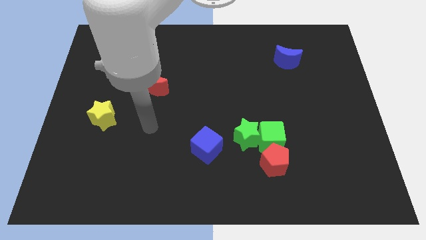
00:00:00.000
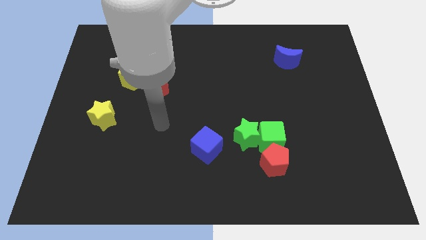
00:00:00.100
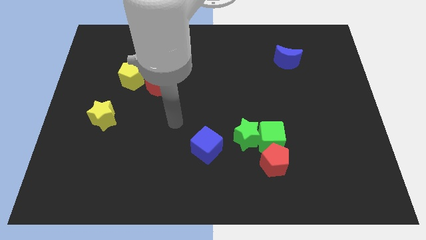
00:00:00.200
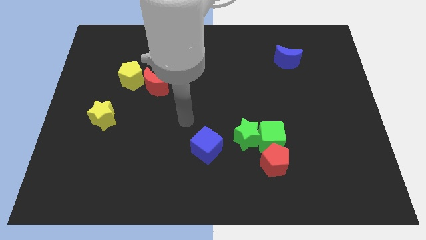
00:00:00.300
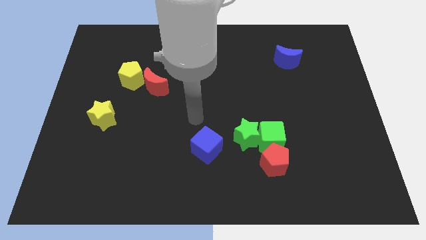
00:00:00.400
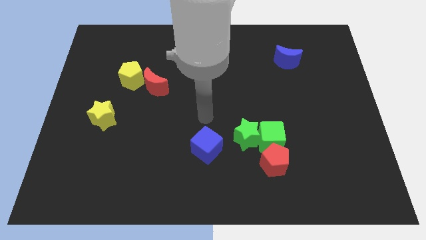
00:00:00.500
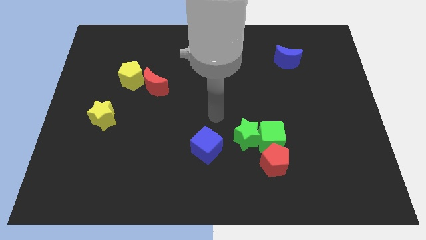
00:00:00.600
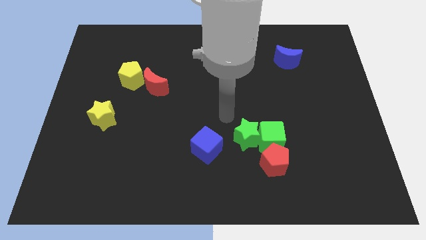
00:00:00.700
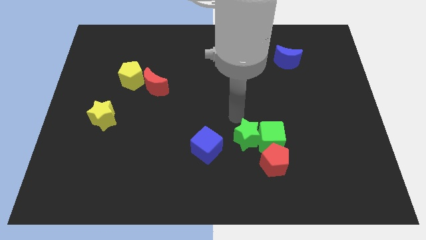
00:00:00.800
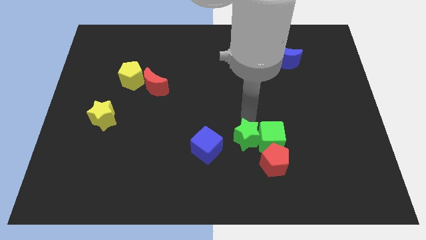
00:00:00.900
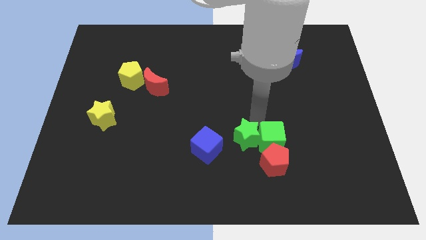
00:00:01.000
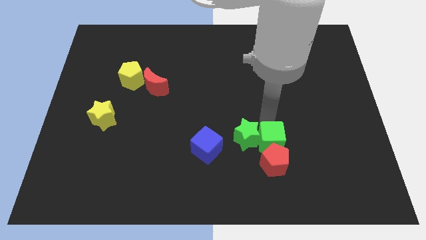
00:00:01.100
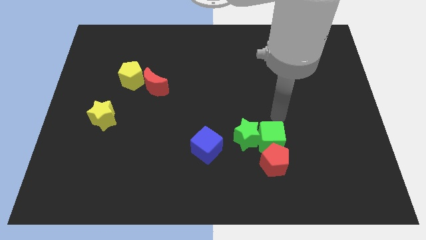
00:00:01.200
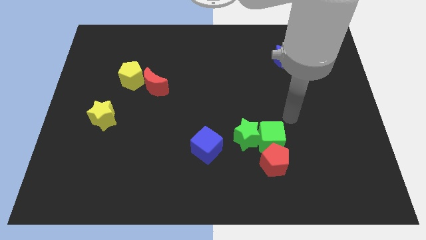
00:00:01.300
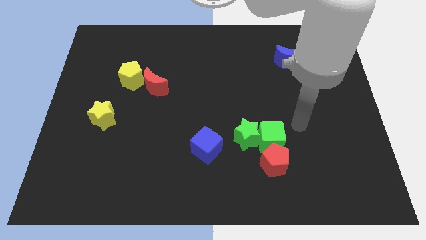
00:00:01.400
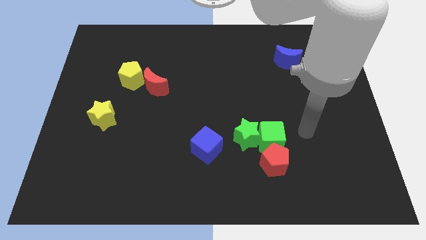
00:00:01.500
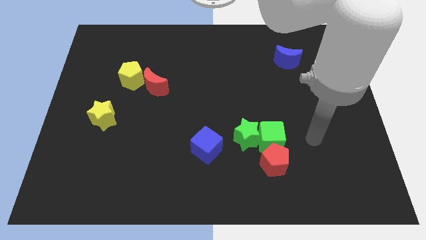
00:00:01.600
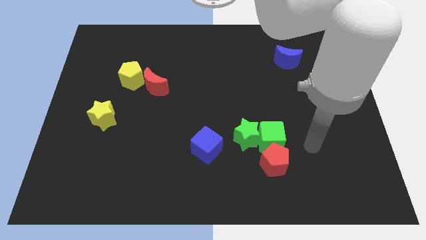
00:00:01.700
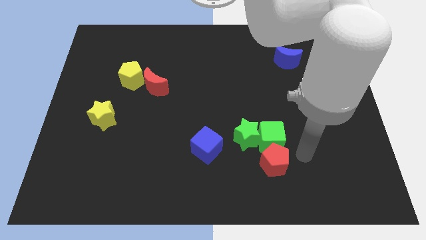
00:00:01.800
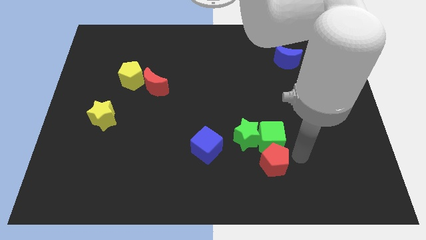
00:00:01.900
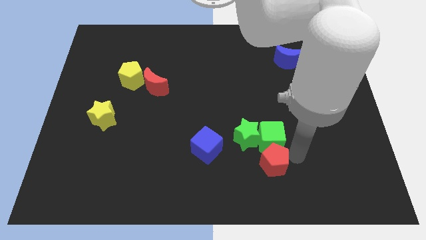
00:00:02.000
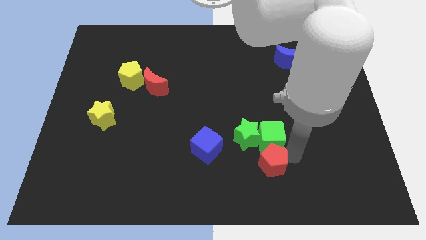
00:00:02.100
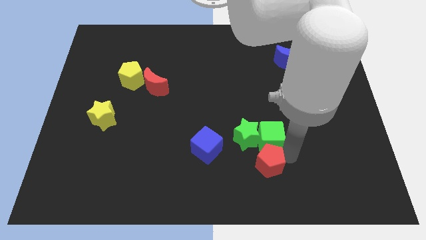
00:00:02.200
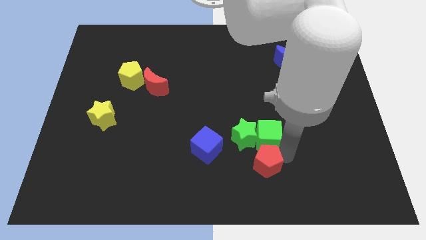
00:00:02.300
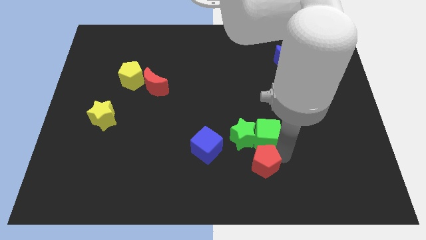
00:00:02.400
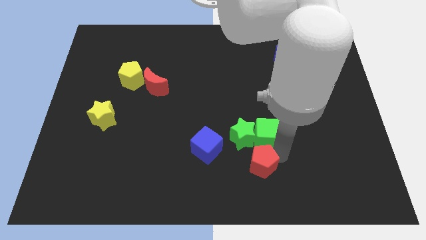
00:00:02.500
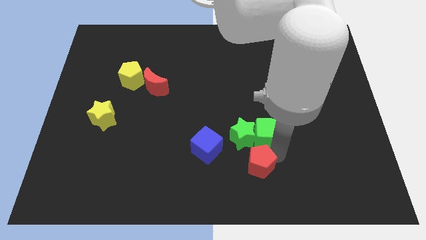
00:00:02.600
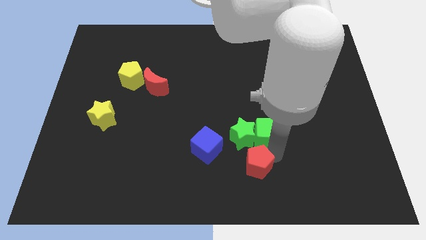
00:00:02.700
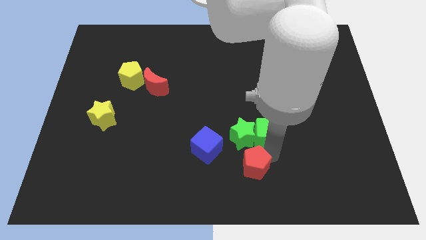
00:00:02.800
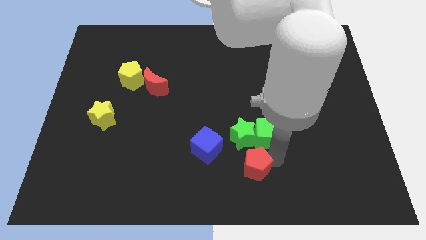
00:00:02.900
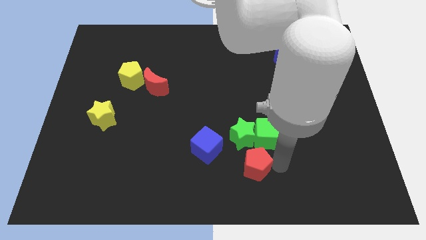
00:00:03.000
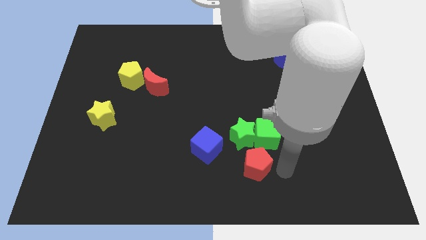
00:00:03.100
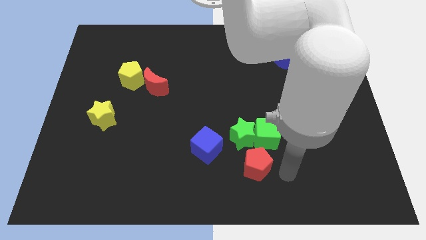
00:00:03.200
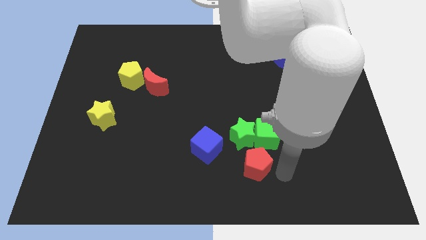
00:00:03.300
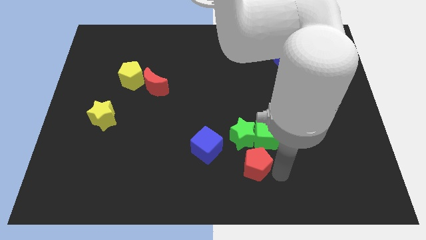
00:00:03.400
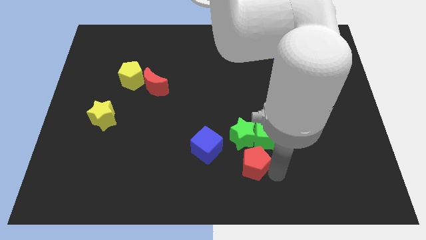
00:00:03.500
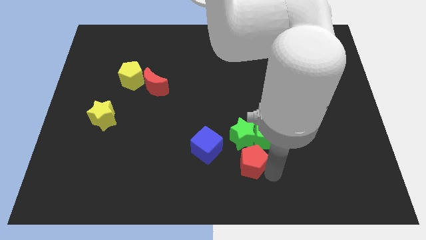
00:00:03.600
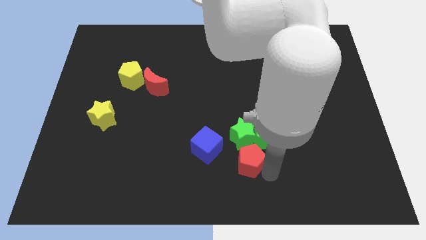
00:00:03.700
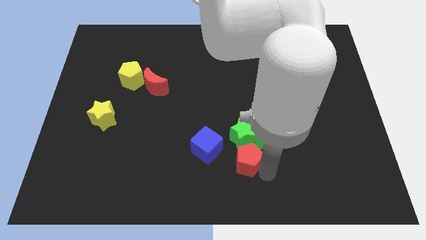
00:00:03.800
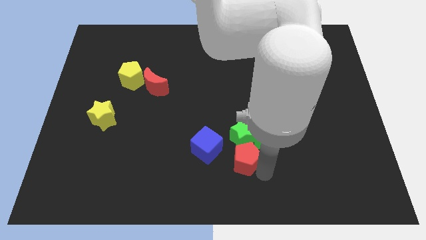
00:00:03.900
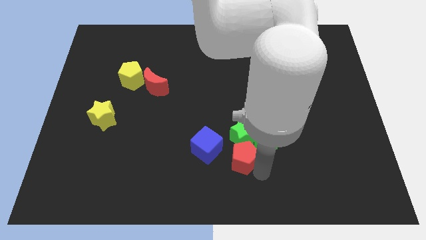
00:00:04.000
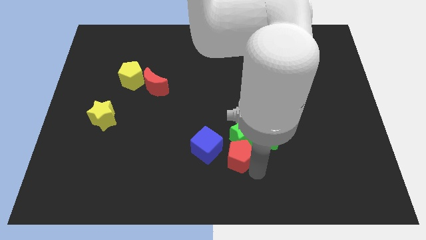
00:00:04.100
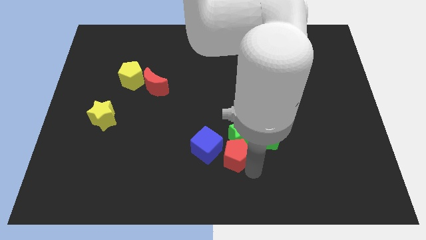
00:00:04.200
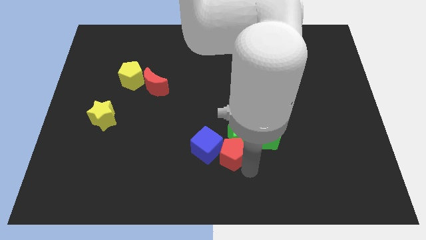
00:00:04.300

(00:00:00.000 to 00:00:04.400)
slide the red pentagon close to the blue cube

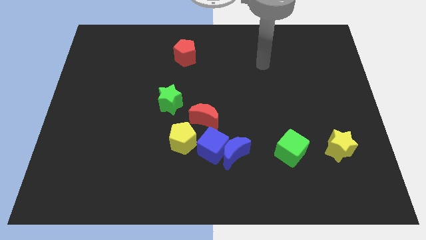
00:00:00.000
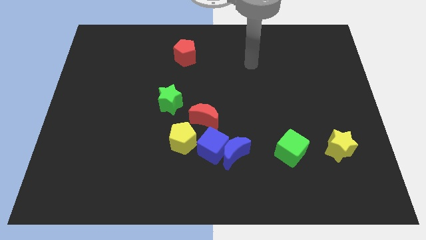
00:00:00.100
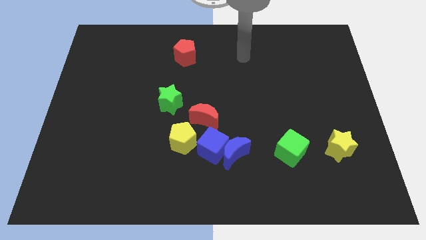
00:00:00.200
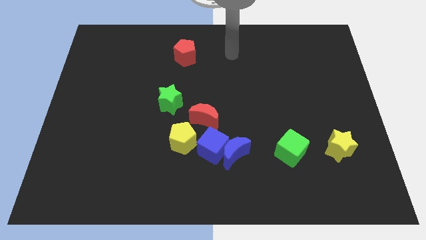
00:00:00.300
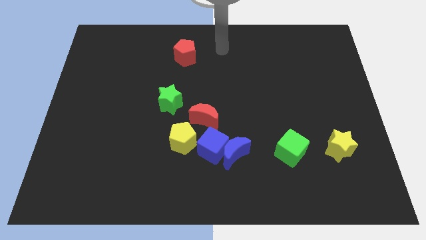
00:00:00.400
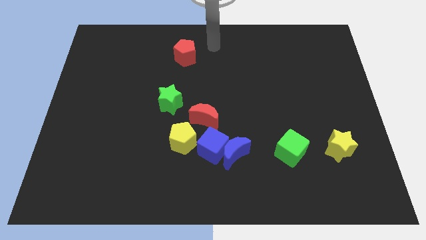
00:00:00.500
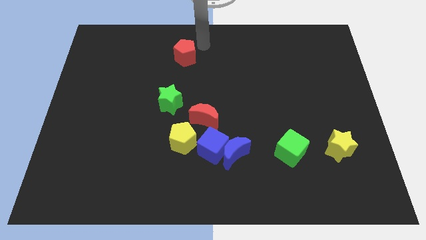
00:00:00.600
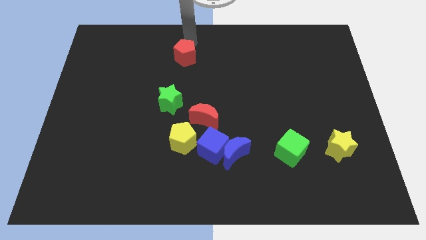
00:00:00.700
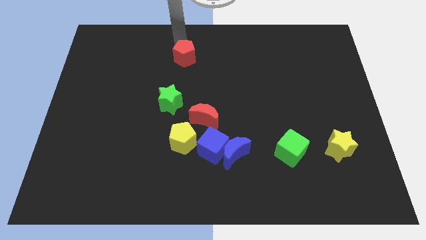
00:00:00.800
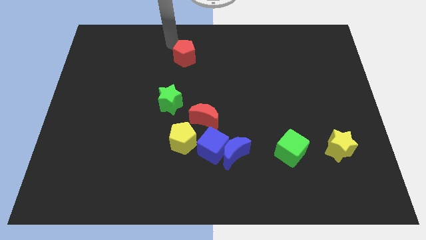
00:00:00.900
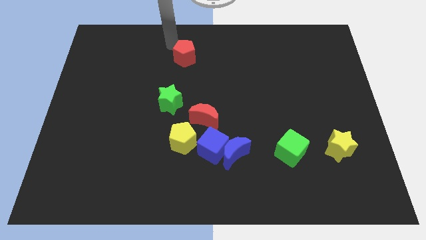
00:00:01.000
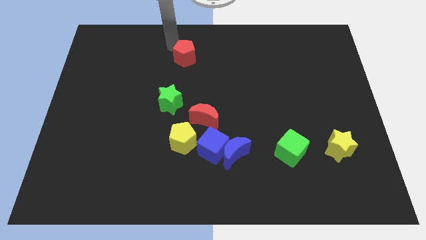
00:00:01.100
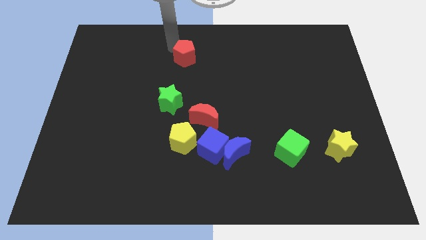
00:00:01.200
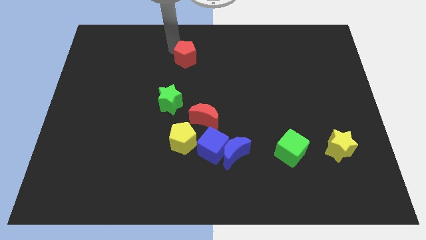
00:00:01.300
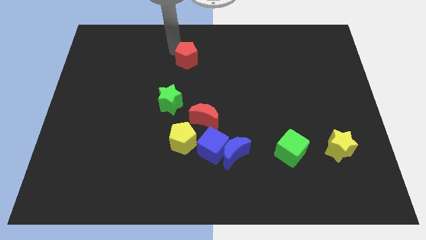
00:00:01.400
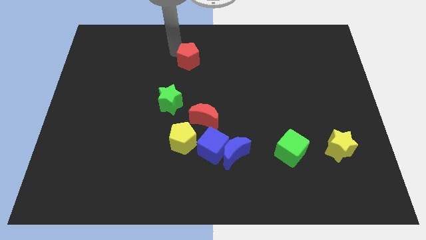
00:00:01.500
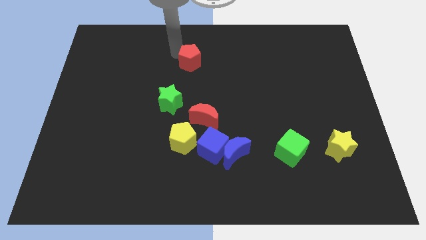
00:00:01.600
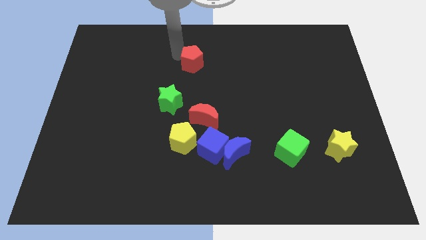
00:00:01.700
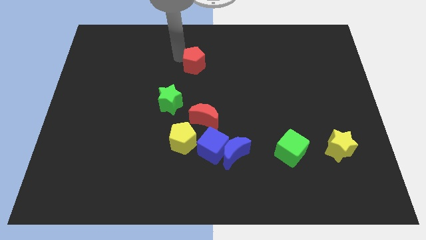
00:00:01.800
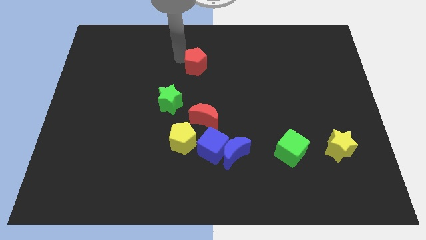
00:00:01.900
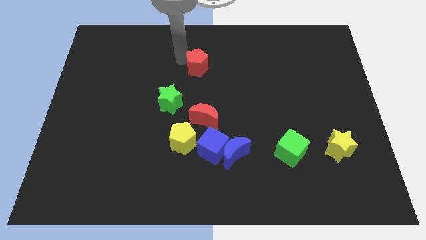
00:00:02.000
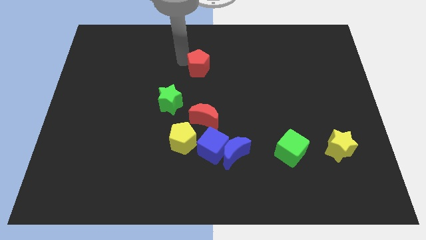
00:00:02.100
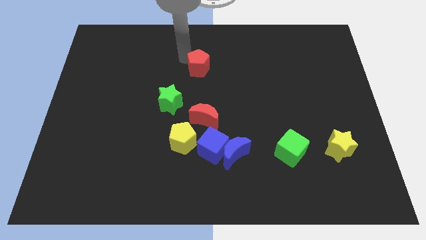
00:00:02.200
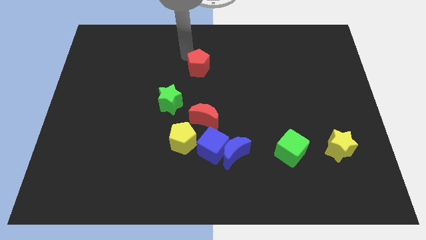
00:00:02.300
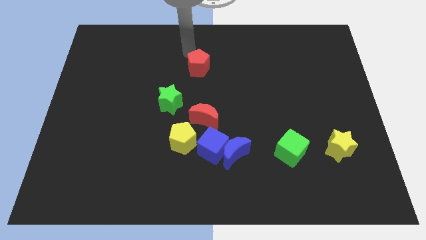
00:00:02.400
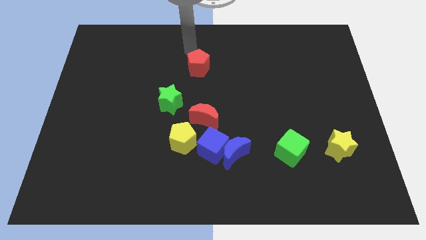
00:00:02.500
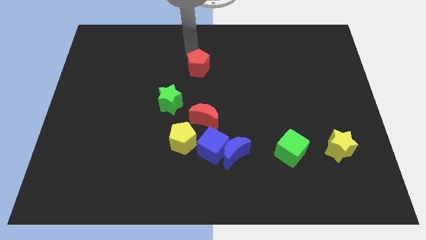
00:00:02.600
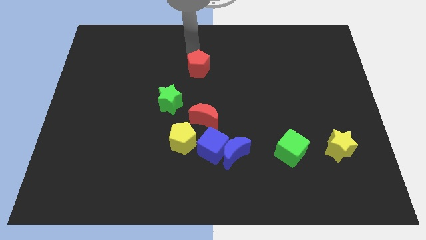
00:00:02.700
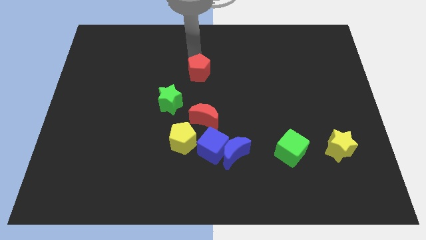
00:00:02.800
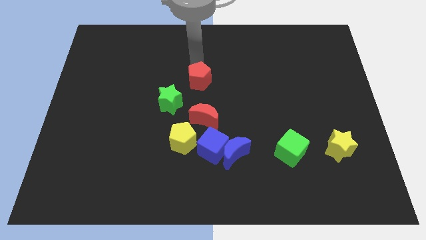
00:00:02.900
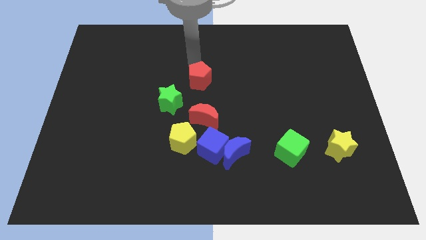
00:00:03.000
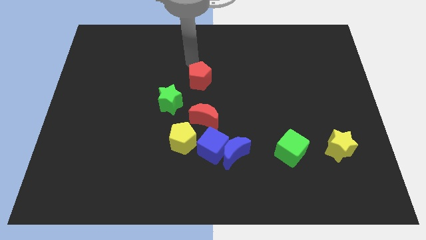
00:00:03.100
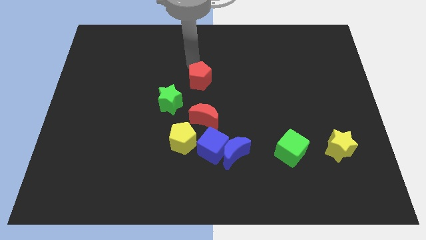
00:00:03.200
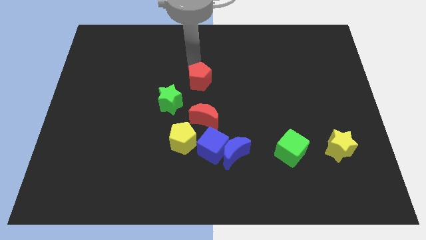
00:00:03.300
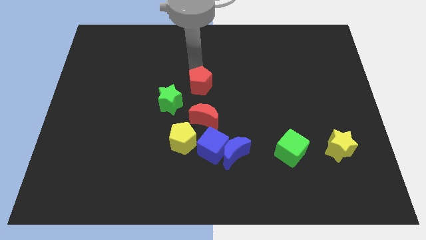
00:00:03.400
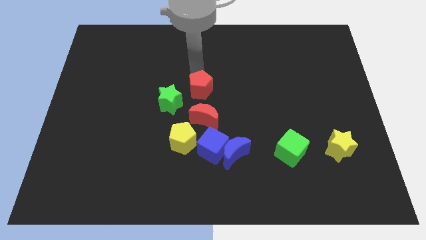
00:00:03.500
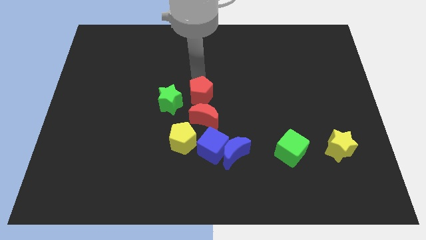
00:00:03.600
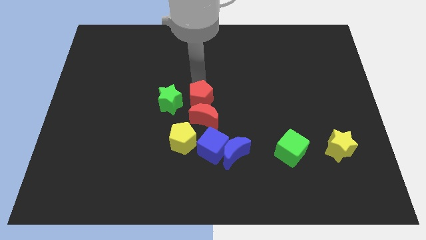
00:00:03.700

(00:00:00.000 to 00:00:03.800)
push the red pentagon towards the red moon
